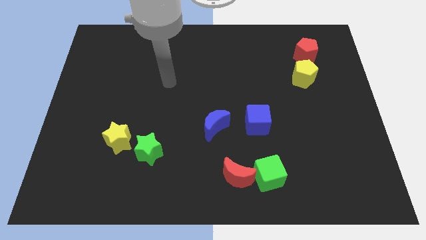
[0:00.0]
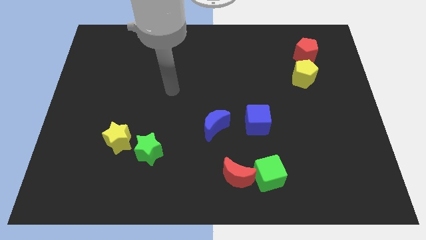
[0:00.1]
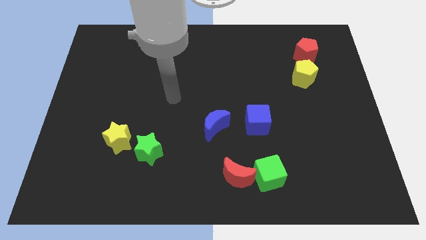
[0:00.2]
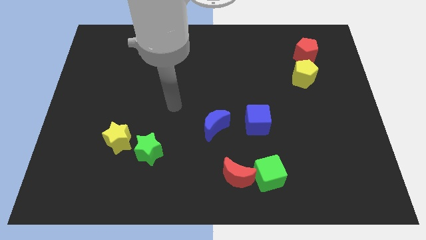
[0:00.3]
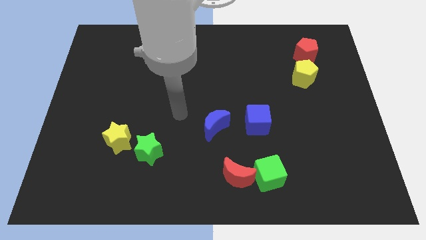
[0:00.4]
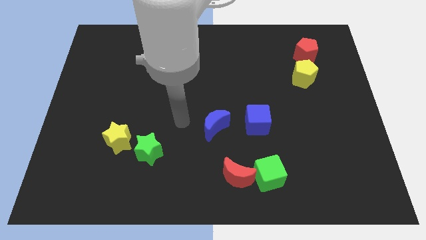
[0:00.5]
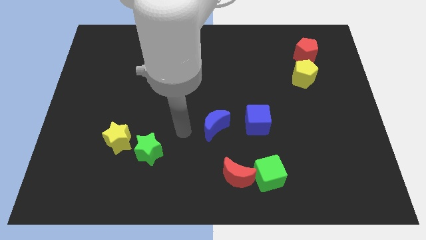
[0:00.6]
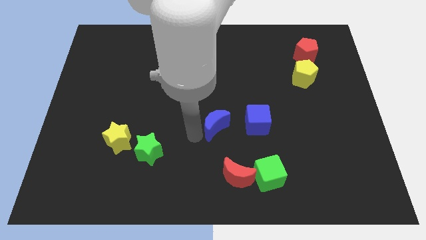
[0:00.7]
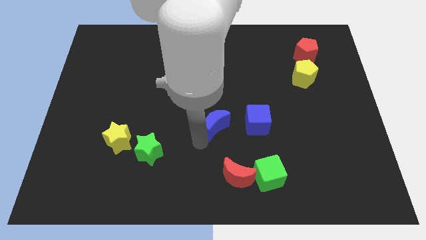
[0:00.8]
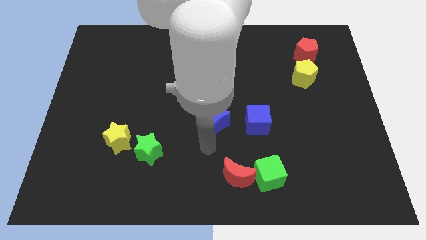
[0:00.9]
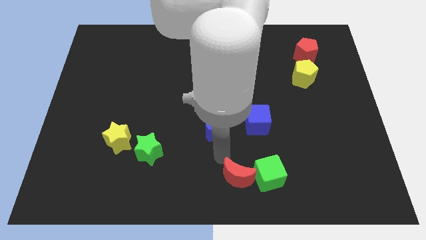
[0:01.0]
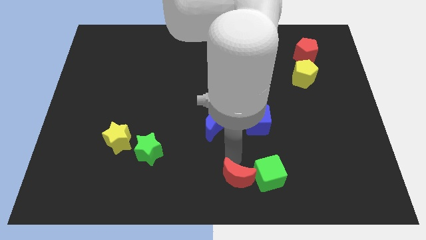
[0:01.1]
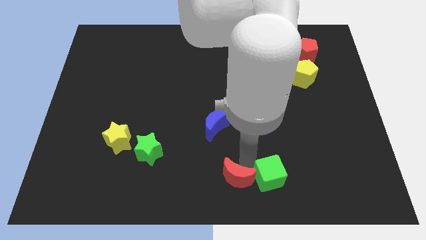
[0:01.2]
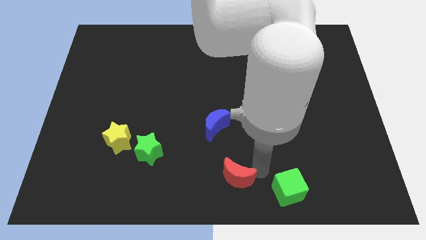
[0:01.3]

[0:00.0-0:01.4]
pull the red moon apart from the green cube

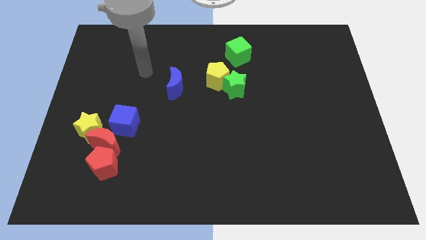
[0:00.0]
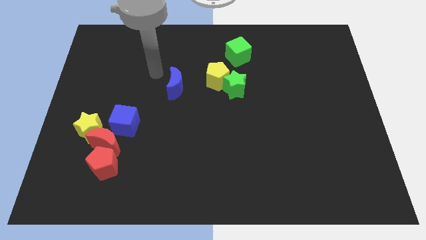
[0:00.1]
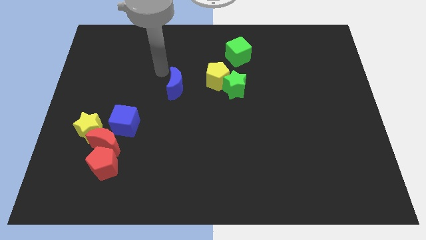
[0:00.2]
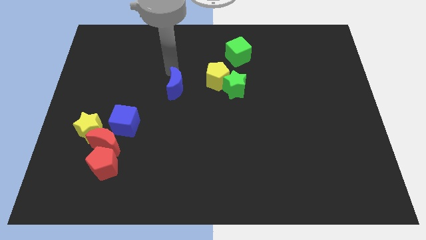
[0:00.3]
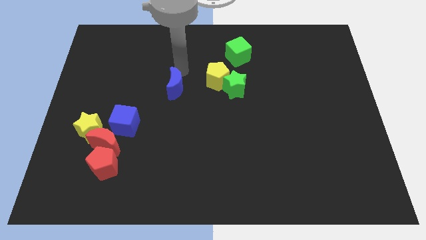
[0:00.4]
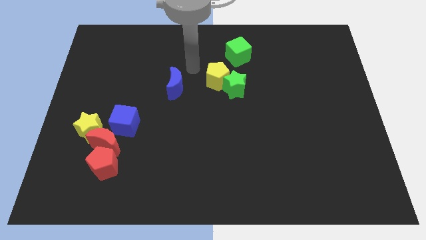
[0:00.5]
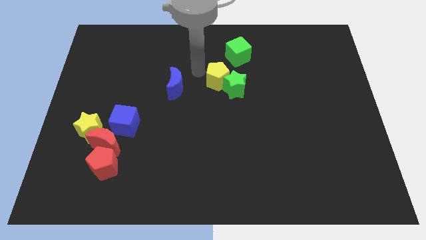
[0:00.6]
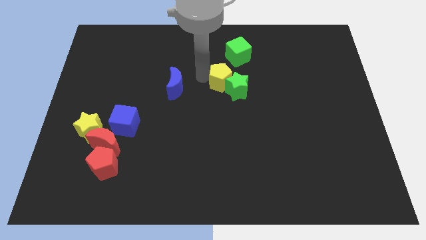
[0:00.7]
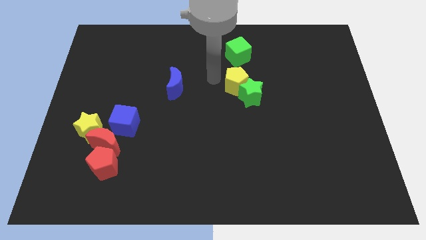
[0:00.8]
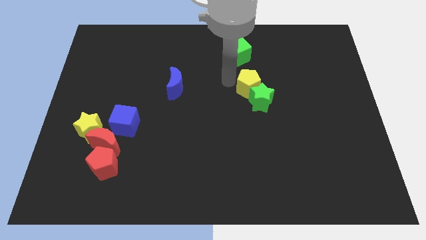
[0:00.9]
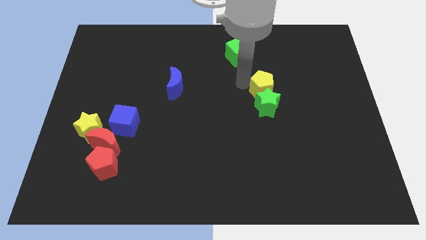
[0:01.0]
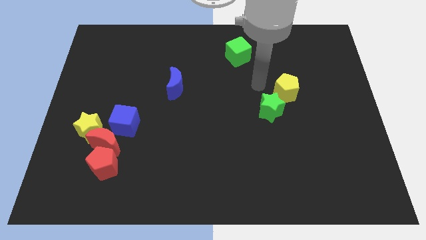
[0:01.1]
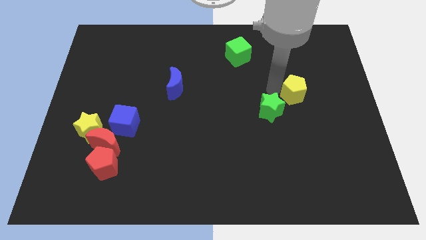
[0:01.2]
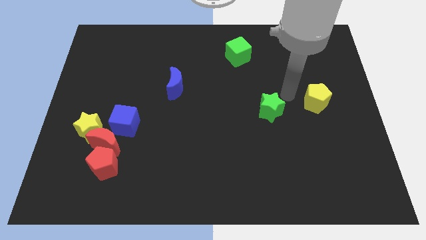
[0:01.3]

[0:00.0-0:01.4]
separate the green star from the yellow pentagon

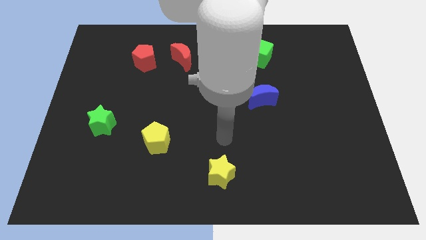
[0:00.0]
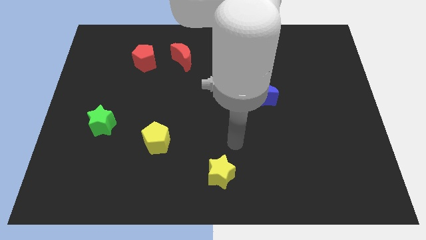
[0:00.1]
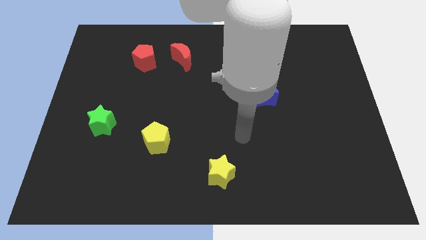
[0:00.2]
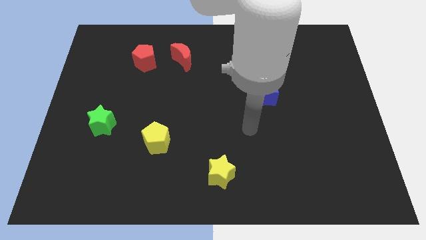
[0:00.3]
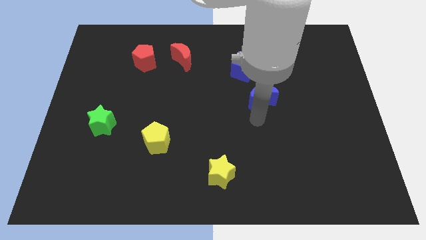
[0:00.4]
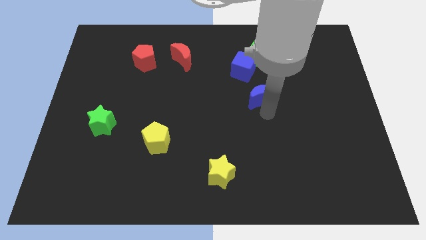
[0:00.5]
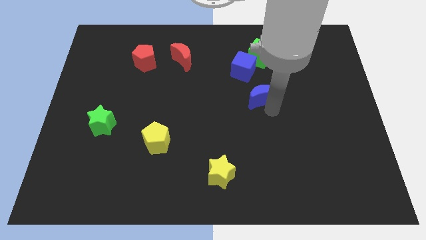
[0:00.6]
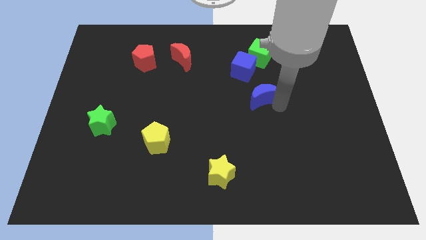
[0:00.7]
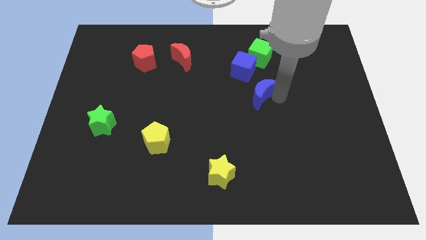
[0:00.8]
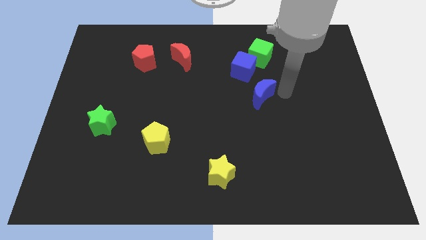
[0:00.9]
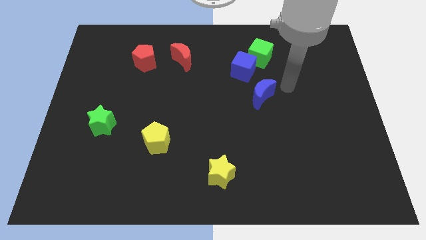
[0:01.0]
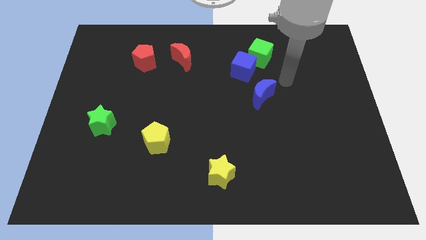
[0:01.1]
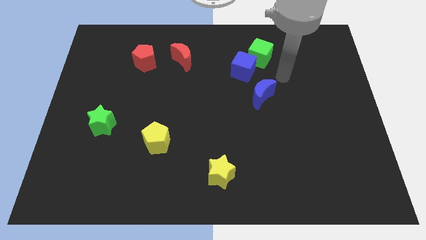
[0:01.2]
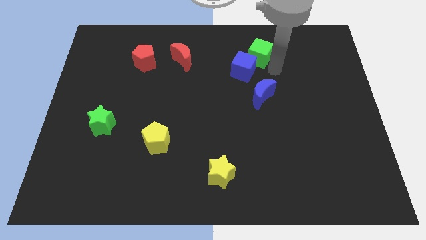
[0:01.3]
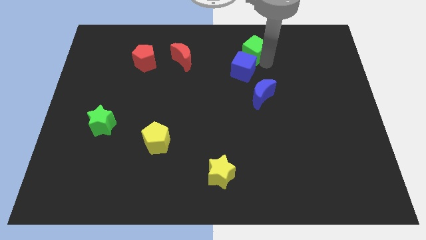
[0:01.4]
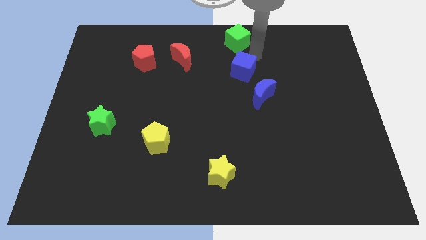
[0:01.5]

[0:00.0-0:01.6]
separate the blue cube from the green cube

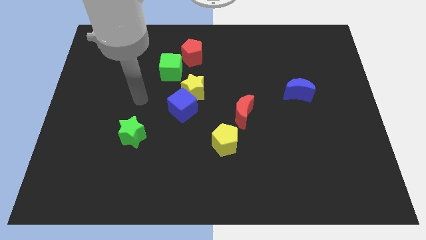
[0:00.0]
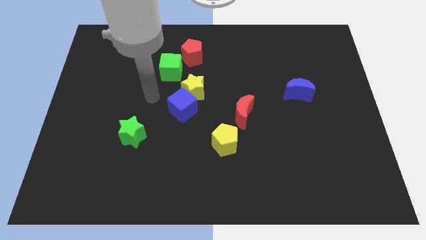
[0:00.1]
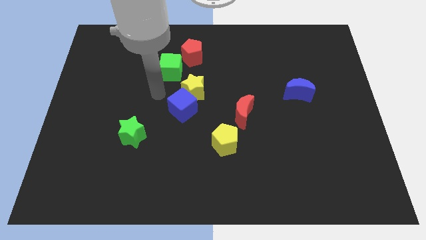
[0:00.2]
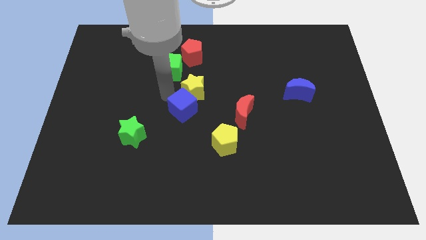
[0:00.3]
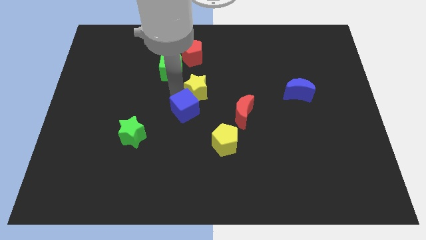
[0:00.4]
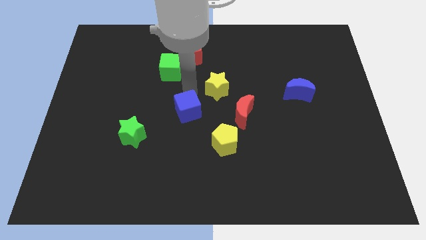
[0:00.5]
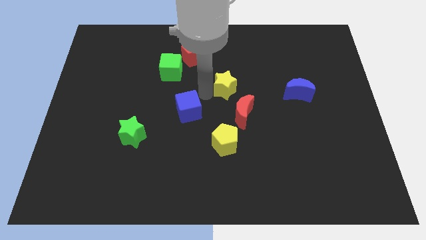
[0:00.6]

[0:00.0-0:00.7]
separate the blue cube from the yellow star

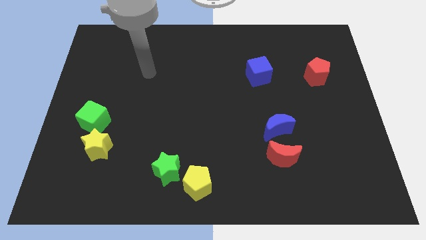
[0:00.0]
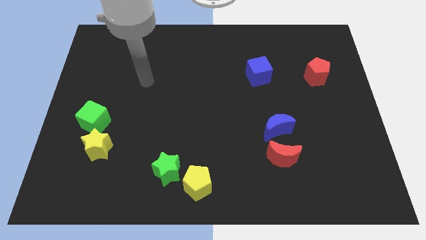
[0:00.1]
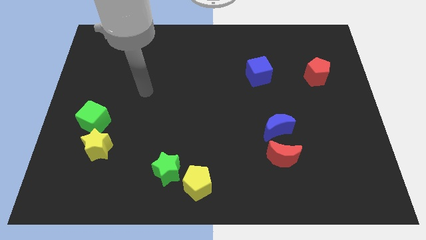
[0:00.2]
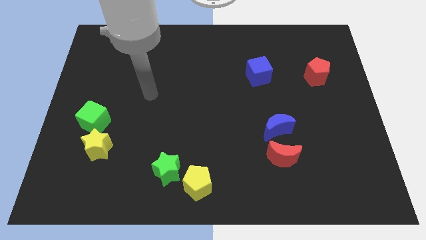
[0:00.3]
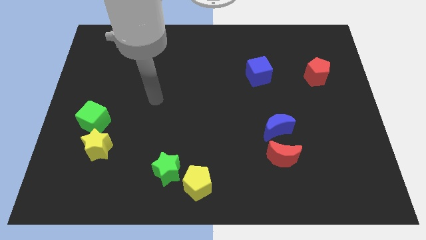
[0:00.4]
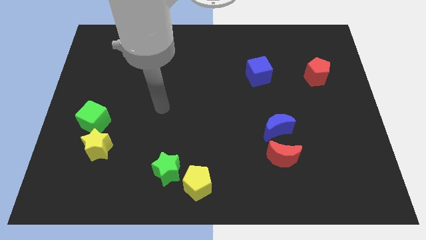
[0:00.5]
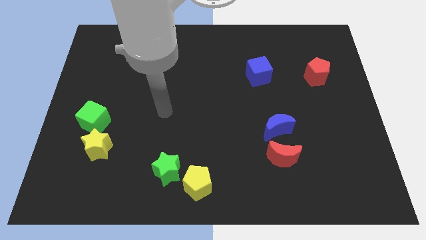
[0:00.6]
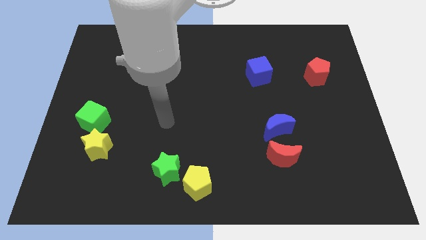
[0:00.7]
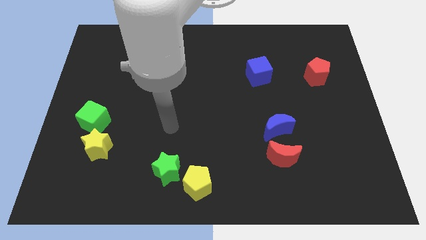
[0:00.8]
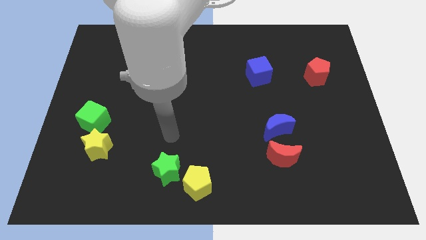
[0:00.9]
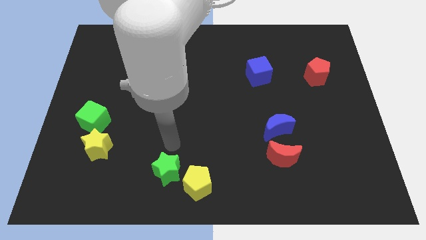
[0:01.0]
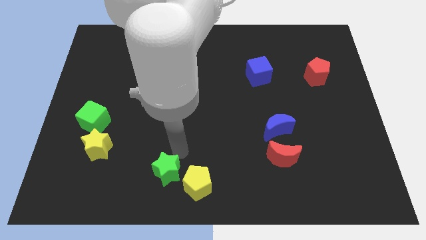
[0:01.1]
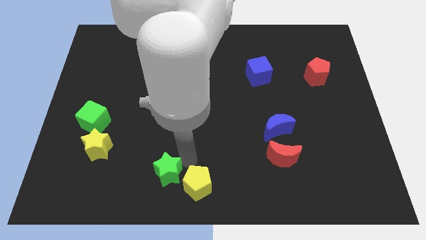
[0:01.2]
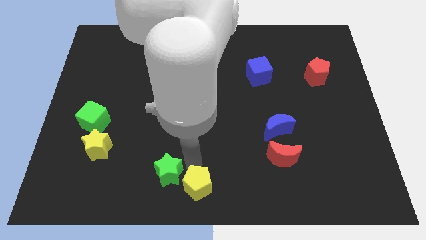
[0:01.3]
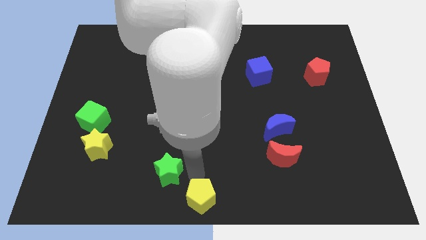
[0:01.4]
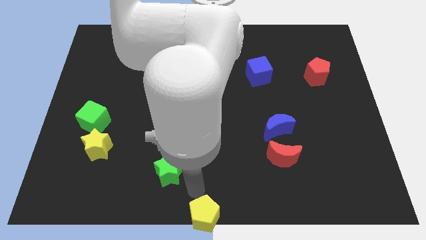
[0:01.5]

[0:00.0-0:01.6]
pull the green star apart from the yellow pentagon

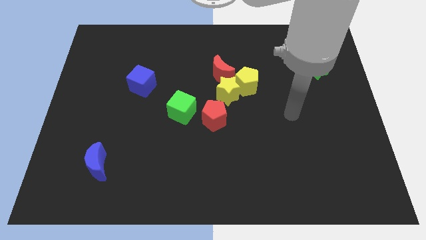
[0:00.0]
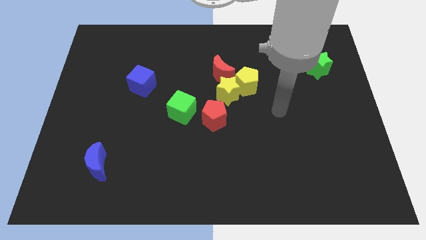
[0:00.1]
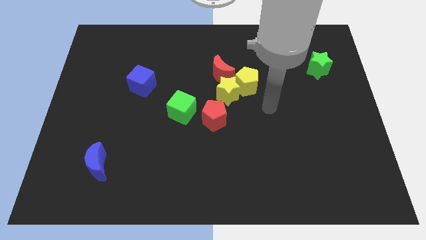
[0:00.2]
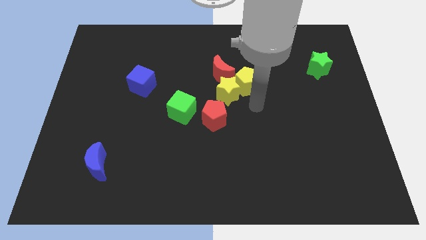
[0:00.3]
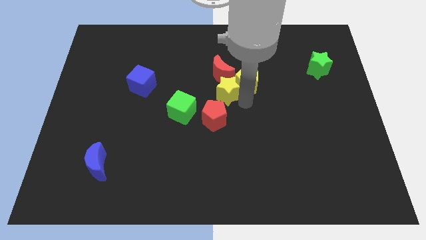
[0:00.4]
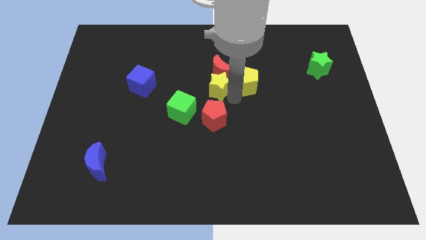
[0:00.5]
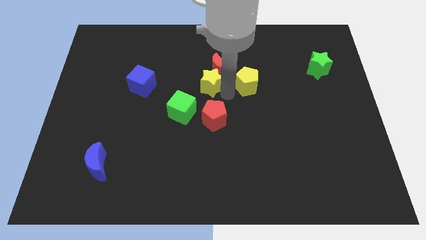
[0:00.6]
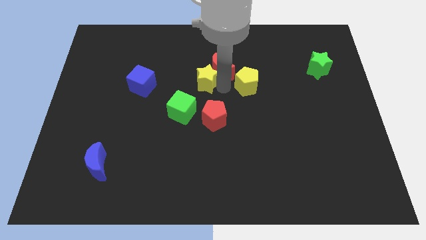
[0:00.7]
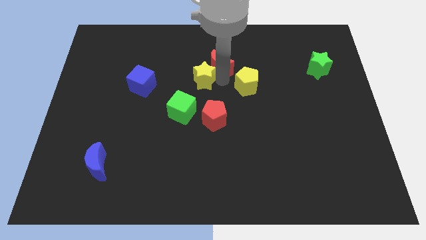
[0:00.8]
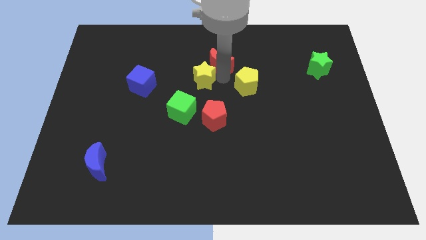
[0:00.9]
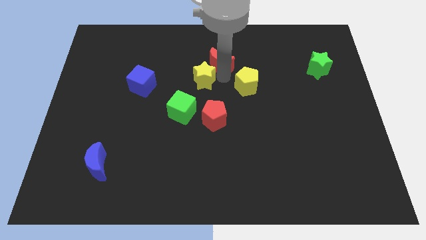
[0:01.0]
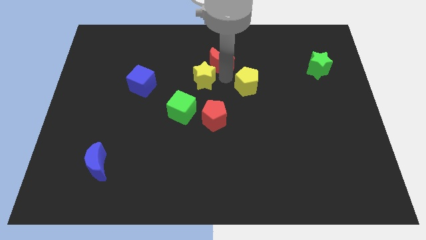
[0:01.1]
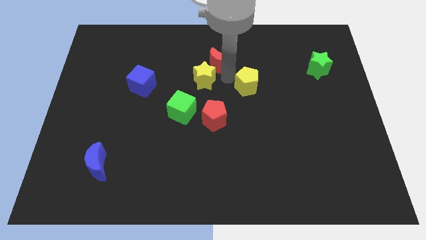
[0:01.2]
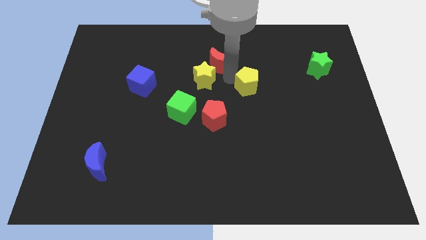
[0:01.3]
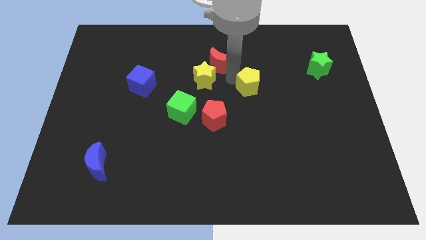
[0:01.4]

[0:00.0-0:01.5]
separate the yellow pentagon from the yellow star and red moon

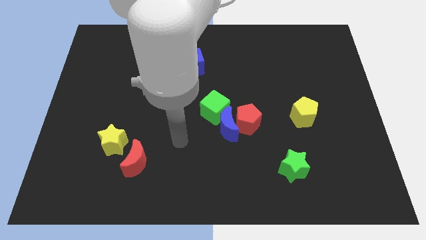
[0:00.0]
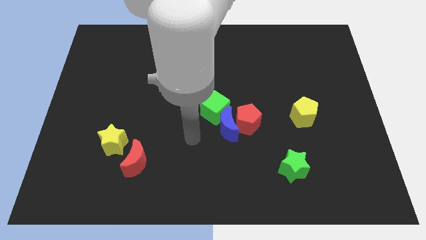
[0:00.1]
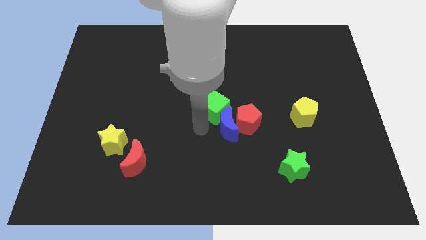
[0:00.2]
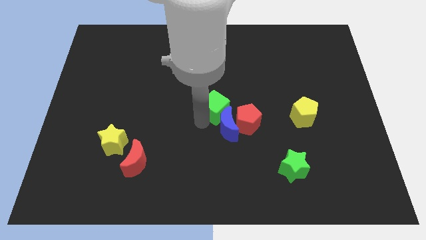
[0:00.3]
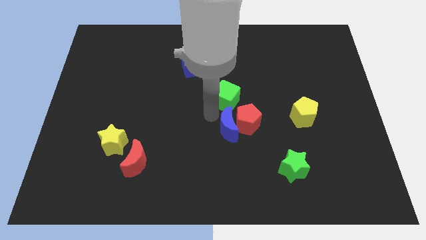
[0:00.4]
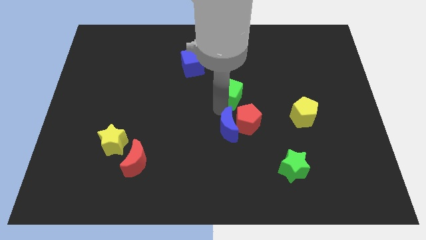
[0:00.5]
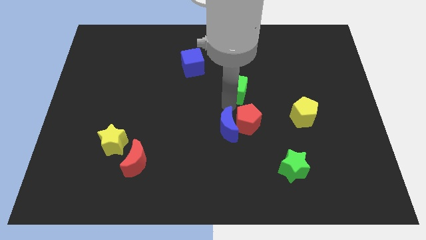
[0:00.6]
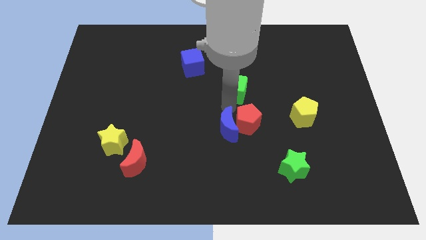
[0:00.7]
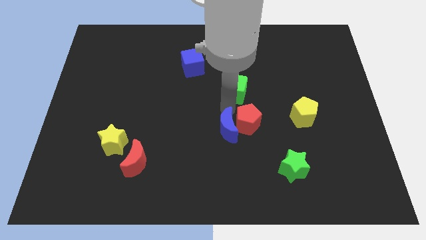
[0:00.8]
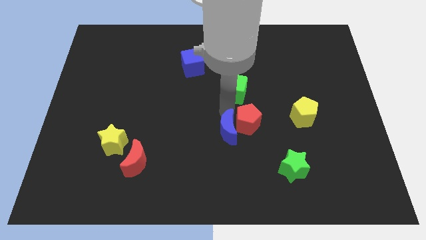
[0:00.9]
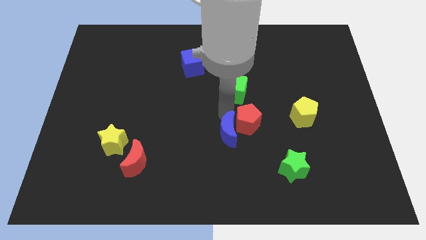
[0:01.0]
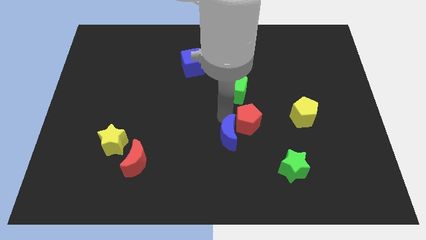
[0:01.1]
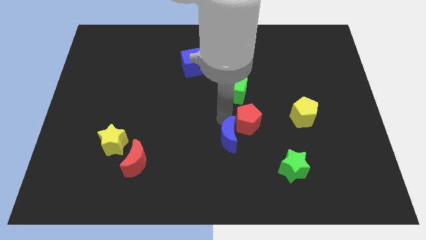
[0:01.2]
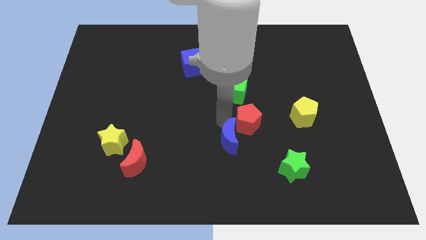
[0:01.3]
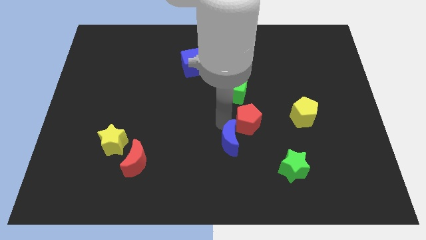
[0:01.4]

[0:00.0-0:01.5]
pull the blue moon apart from the red pentagon and green cube
